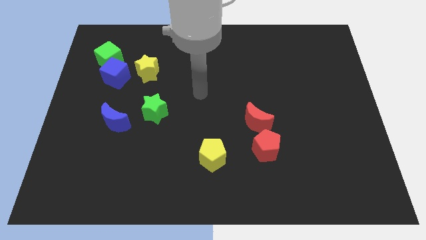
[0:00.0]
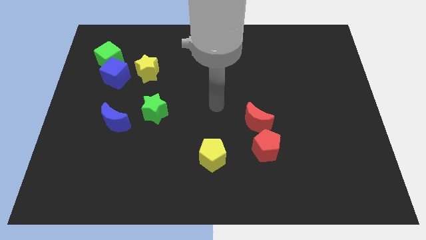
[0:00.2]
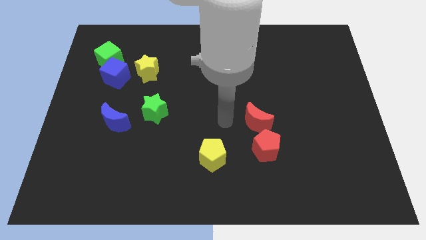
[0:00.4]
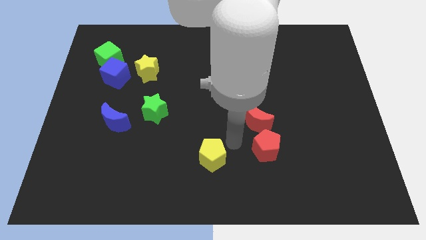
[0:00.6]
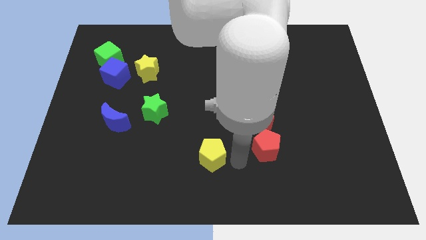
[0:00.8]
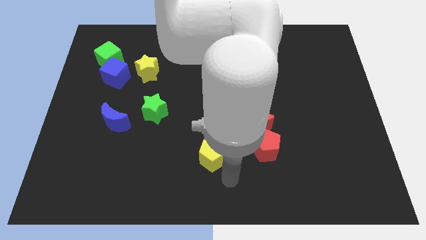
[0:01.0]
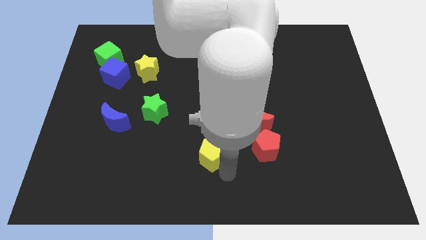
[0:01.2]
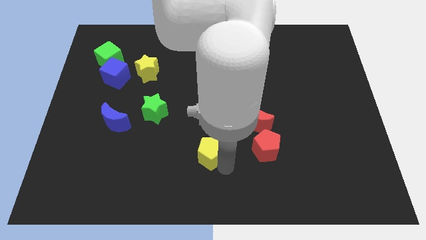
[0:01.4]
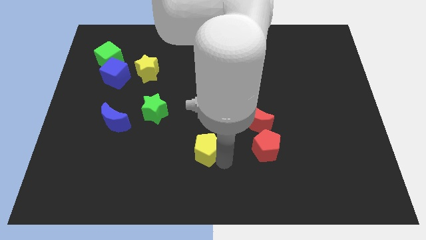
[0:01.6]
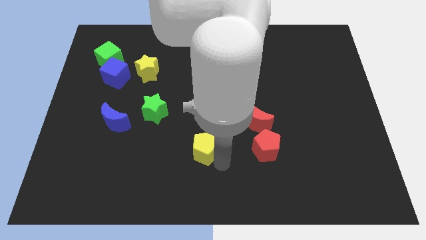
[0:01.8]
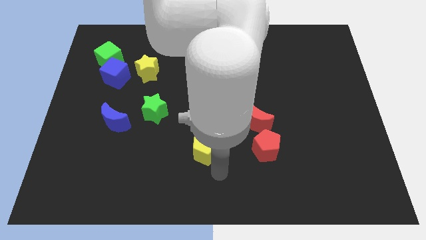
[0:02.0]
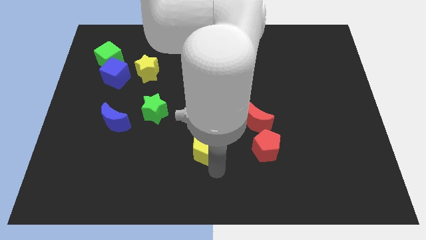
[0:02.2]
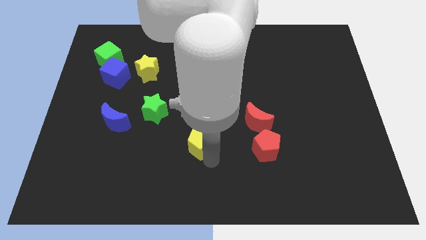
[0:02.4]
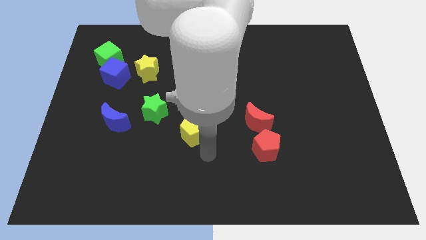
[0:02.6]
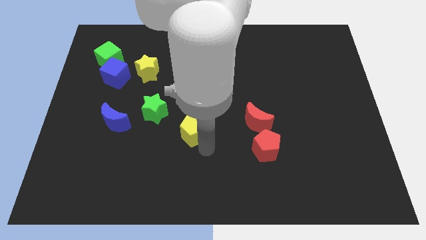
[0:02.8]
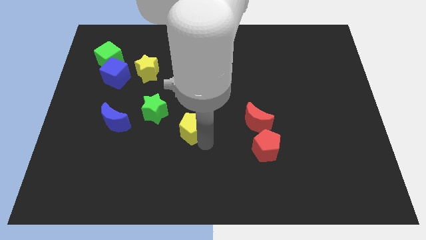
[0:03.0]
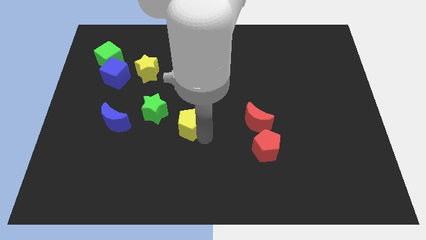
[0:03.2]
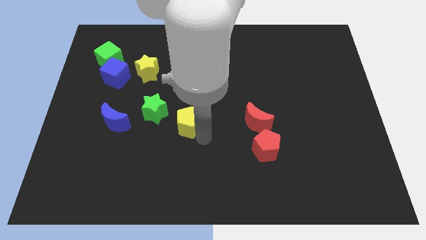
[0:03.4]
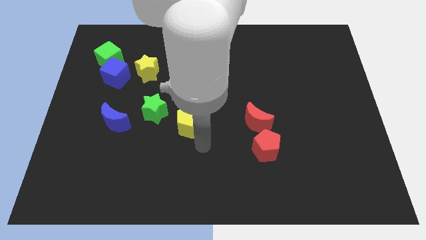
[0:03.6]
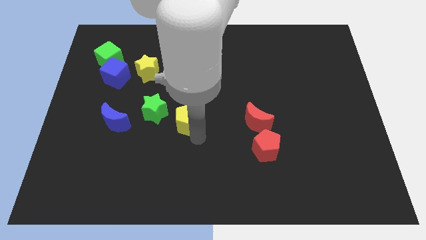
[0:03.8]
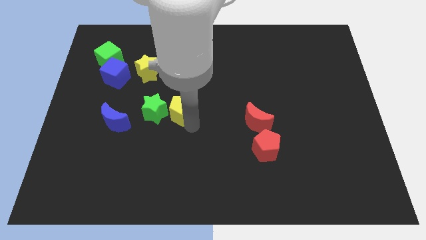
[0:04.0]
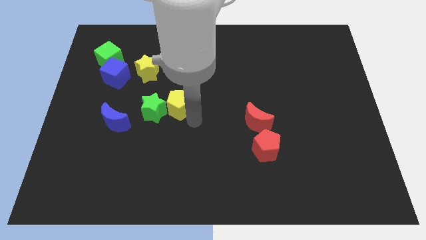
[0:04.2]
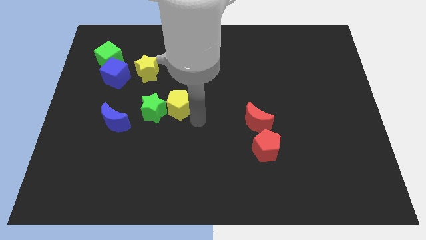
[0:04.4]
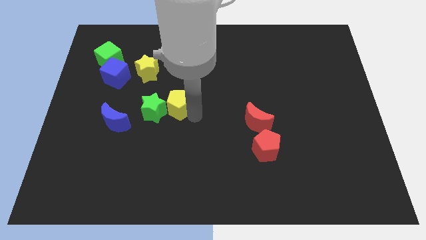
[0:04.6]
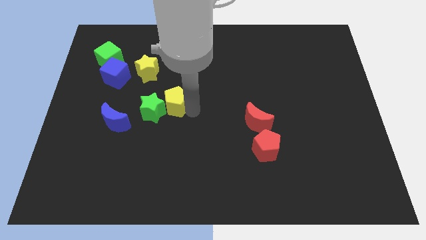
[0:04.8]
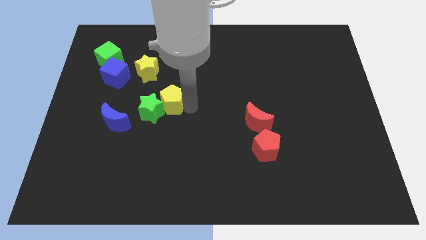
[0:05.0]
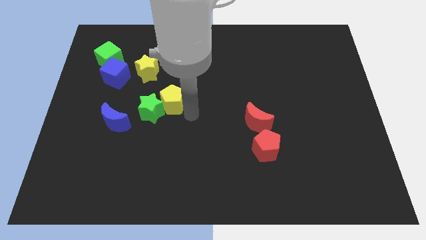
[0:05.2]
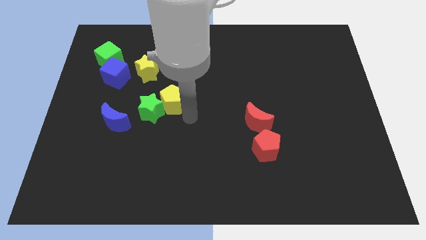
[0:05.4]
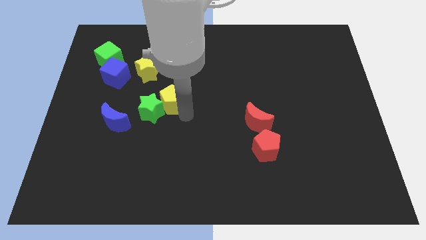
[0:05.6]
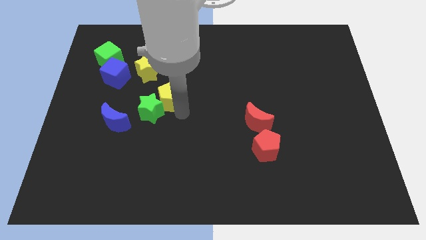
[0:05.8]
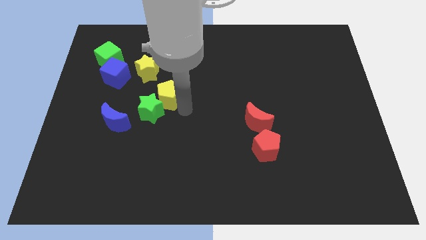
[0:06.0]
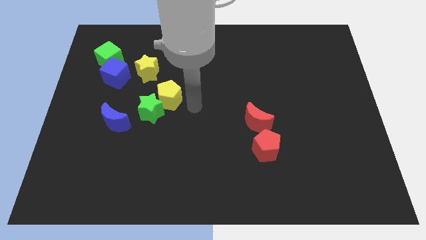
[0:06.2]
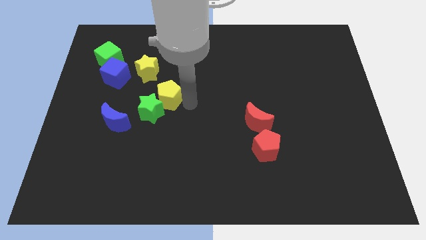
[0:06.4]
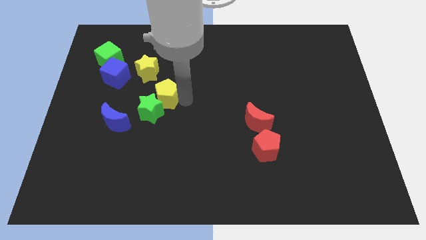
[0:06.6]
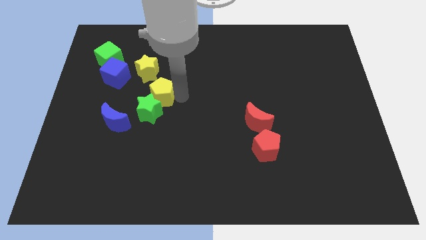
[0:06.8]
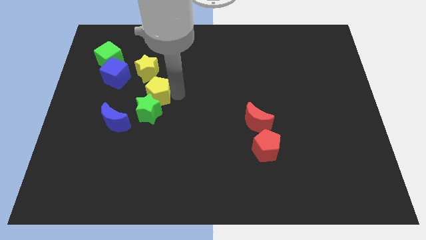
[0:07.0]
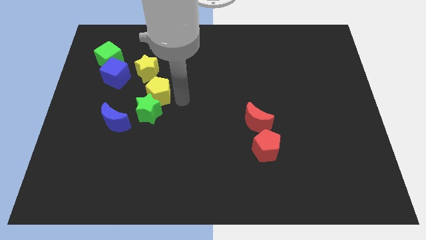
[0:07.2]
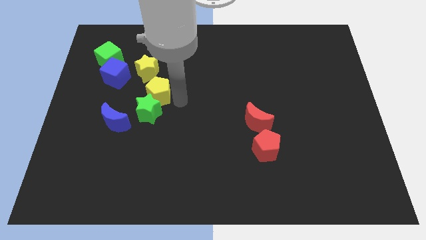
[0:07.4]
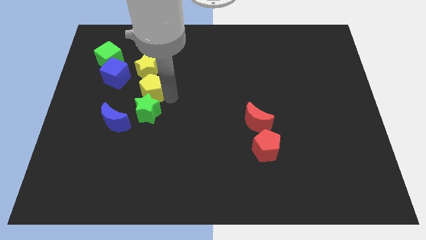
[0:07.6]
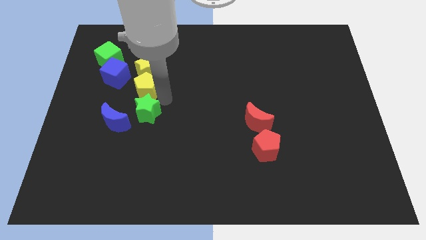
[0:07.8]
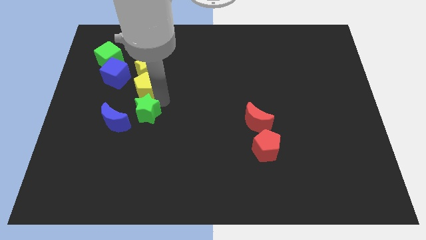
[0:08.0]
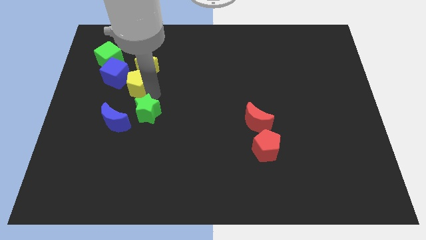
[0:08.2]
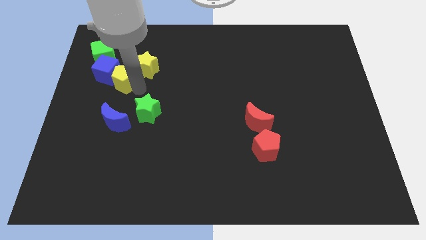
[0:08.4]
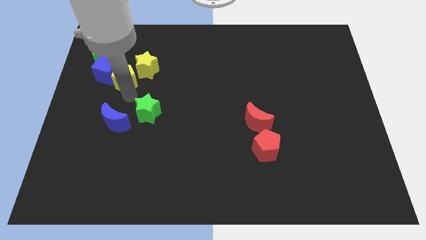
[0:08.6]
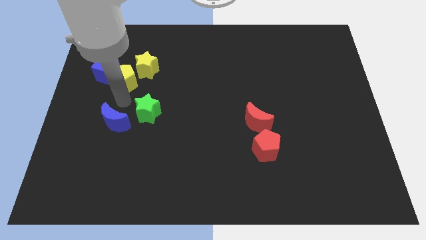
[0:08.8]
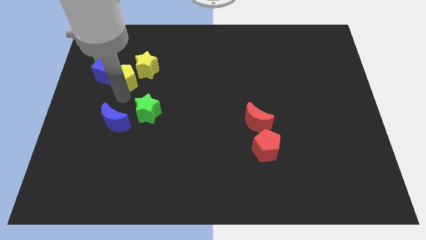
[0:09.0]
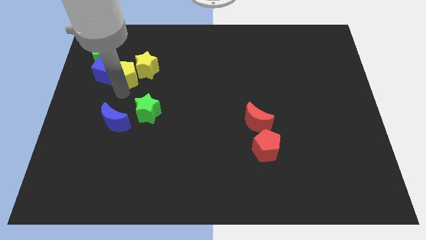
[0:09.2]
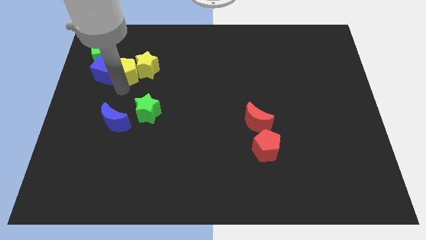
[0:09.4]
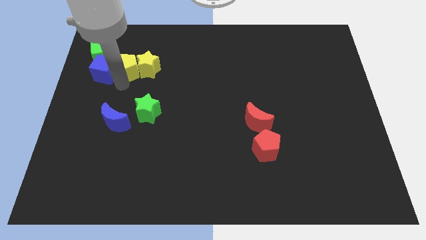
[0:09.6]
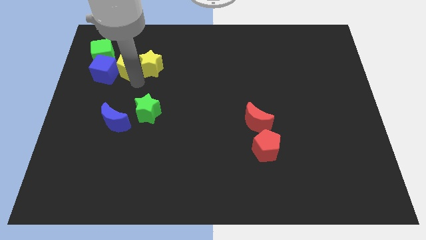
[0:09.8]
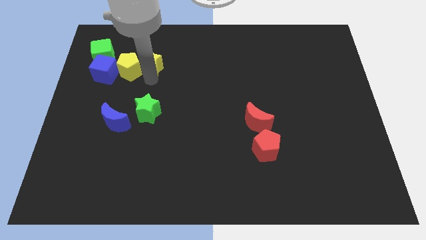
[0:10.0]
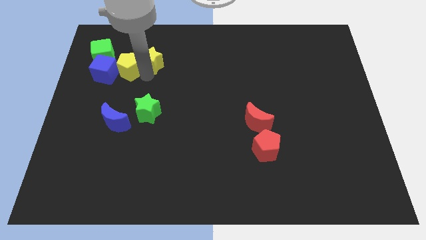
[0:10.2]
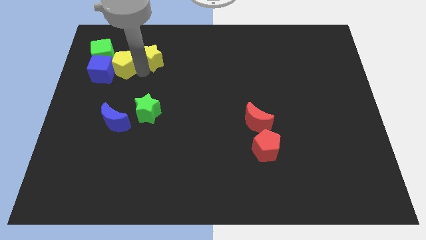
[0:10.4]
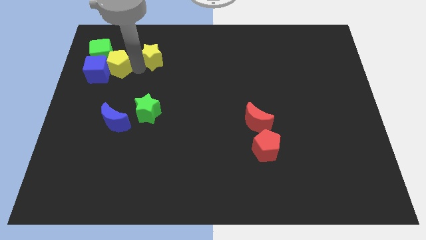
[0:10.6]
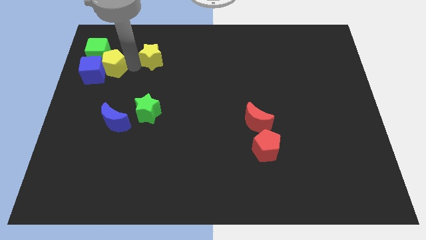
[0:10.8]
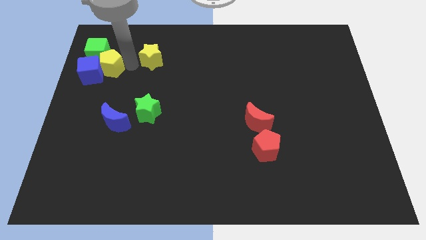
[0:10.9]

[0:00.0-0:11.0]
push the yellow pentagon to the green cube
